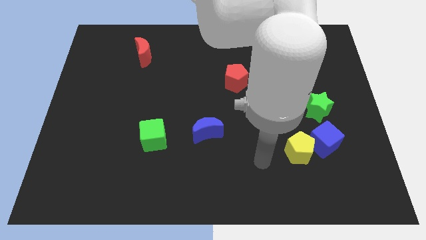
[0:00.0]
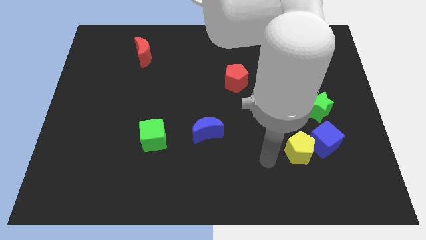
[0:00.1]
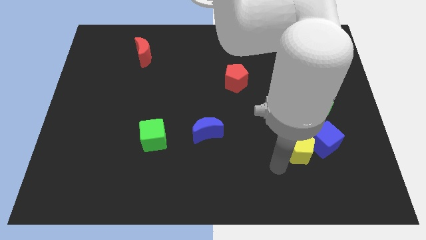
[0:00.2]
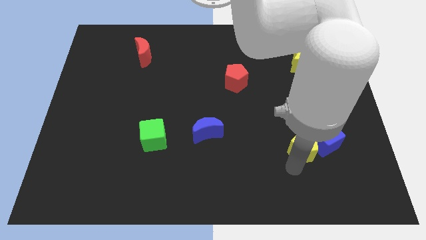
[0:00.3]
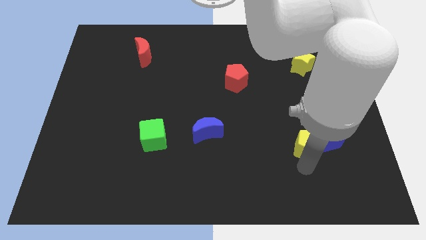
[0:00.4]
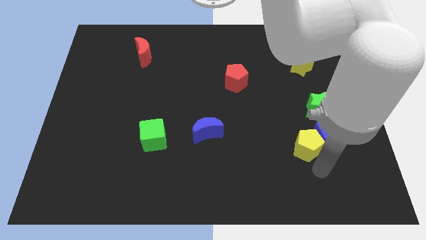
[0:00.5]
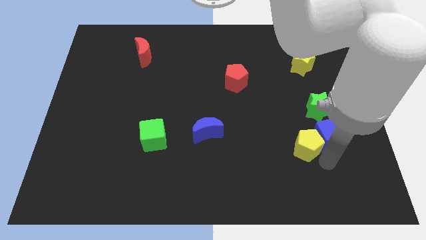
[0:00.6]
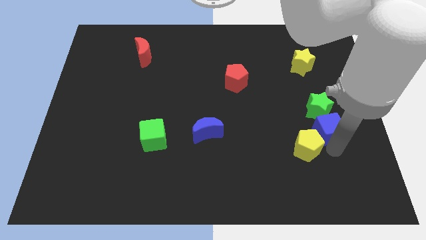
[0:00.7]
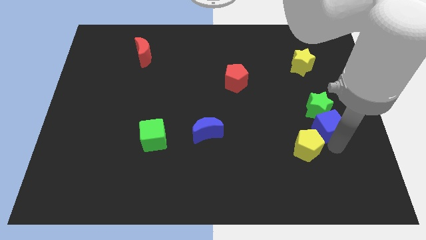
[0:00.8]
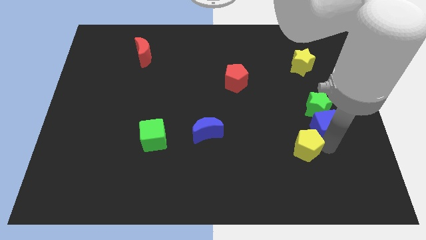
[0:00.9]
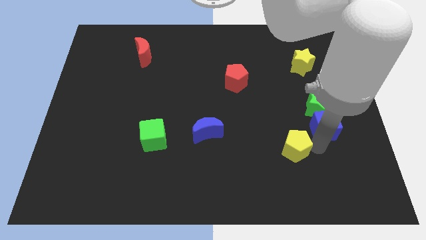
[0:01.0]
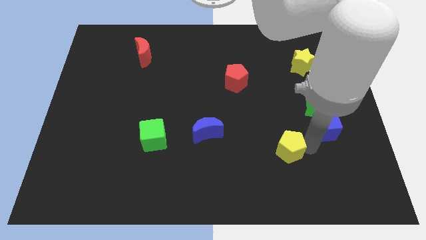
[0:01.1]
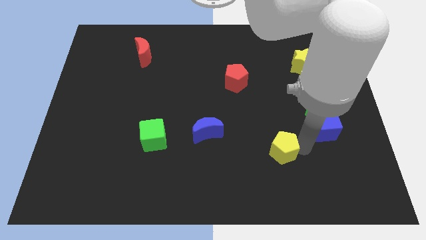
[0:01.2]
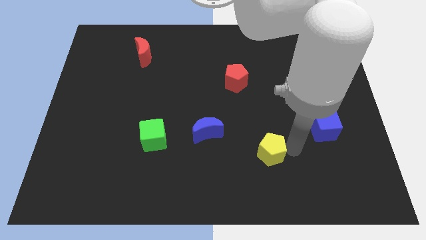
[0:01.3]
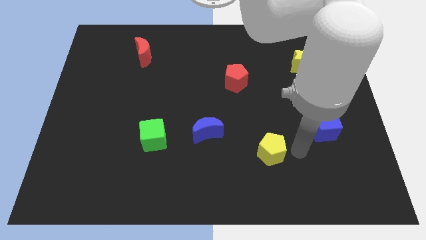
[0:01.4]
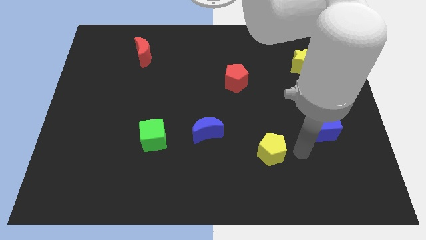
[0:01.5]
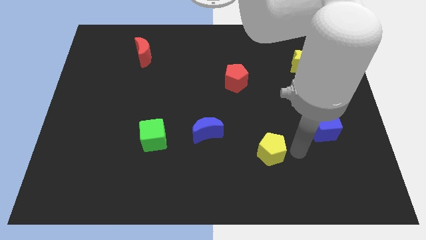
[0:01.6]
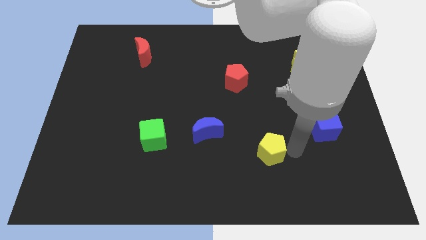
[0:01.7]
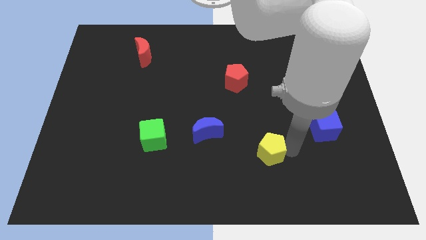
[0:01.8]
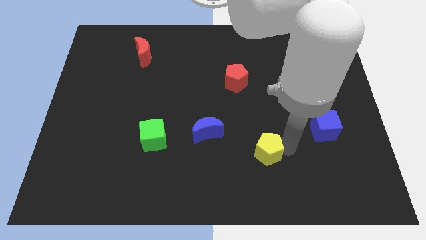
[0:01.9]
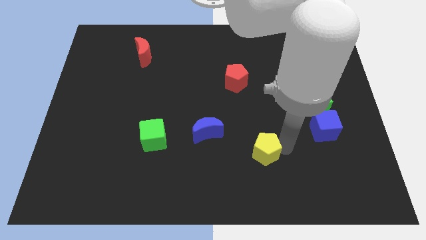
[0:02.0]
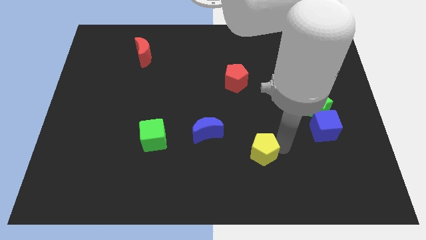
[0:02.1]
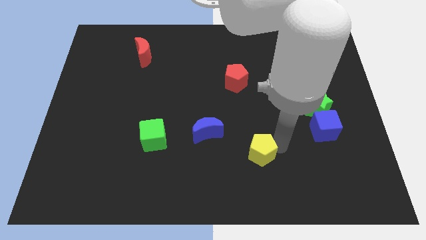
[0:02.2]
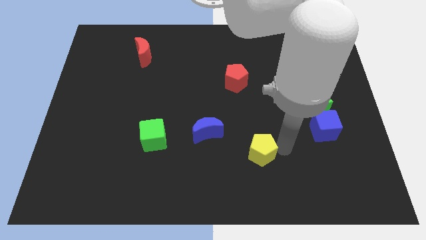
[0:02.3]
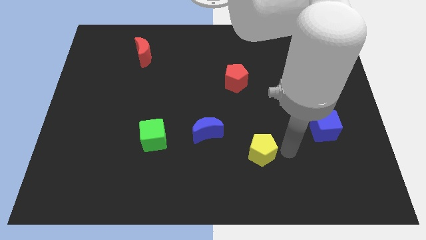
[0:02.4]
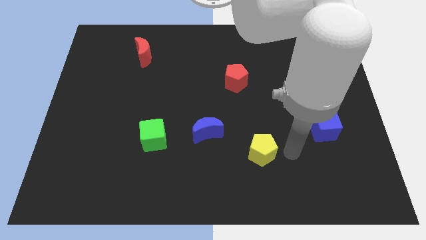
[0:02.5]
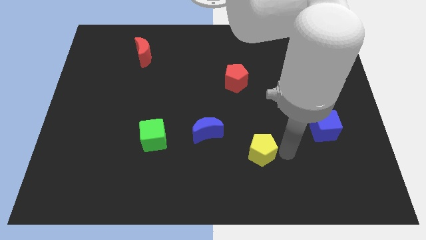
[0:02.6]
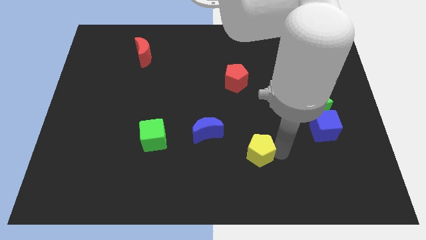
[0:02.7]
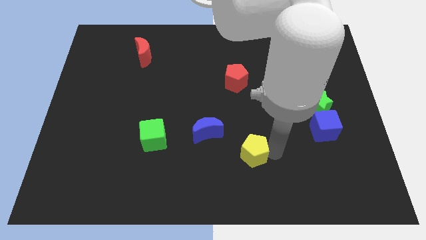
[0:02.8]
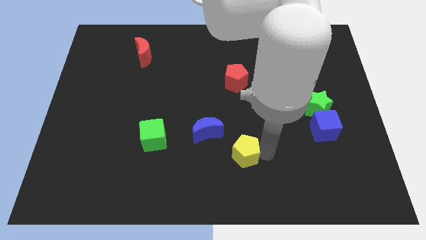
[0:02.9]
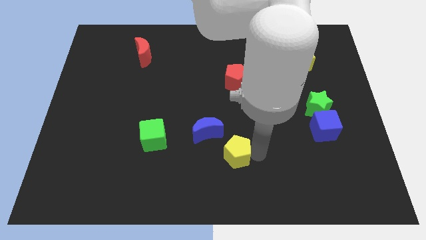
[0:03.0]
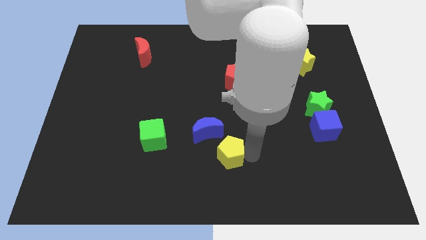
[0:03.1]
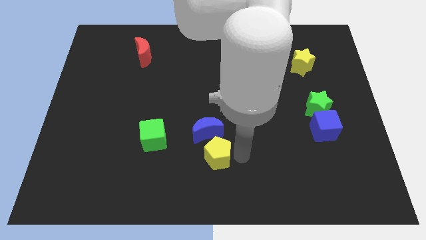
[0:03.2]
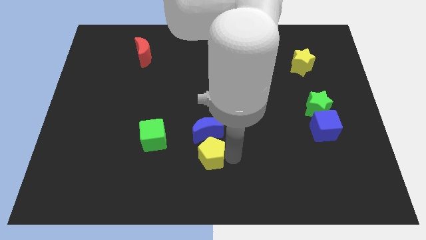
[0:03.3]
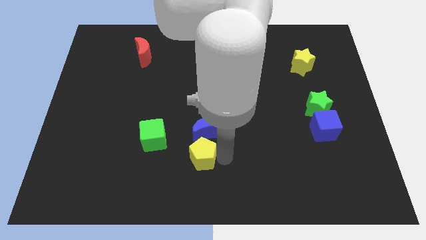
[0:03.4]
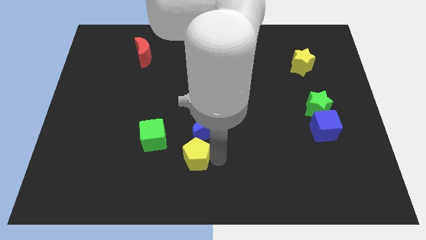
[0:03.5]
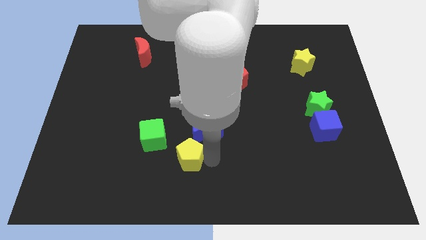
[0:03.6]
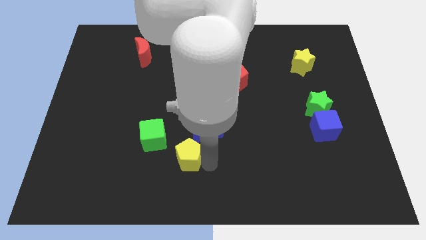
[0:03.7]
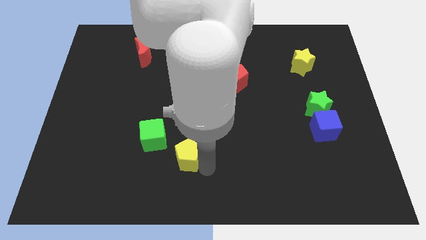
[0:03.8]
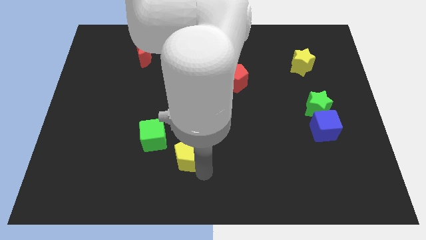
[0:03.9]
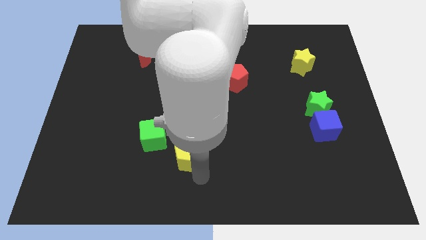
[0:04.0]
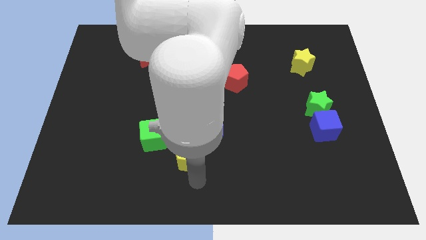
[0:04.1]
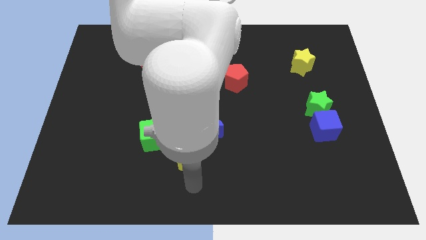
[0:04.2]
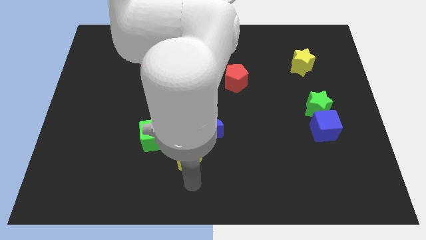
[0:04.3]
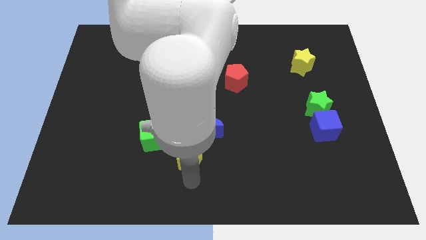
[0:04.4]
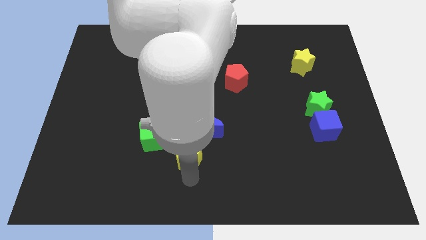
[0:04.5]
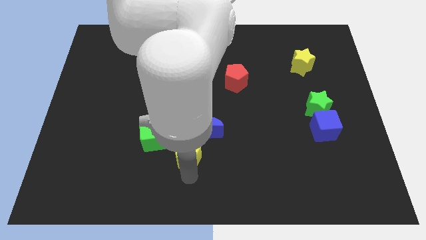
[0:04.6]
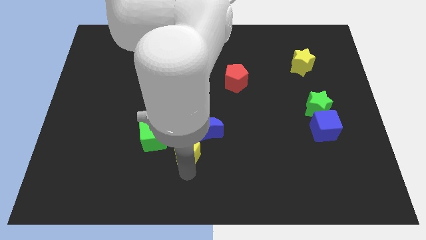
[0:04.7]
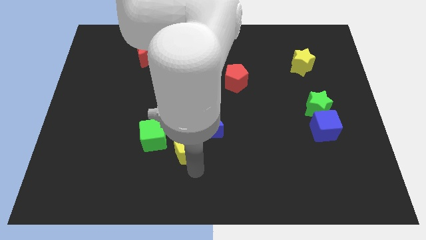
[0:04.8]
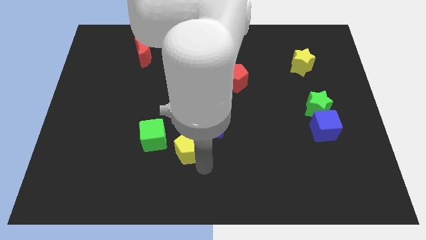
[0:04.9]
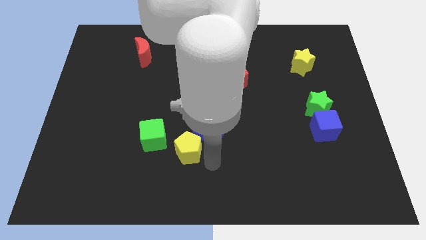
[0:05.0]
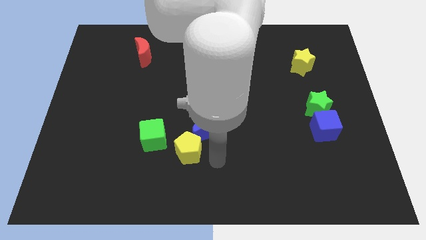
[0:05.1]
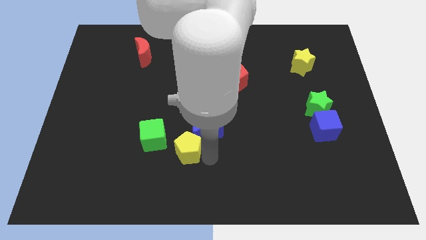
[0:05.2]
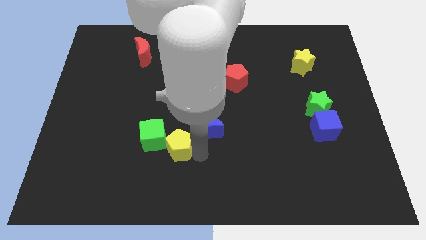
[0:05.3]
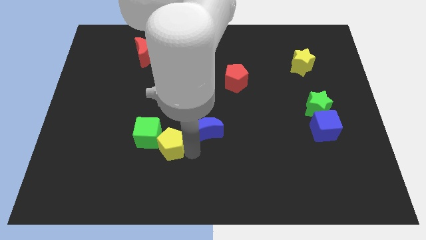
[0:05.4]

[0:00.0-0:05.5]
move the yellow pentagon next to the green cube
